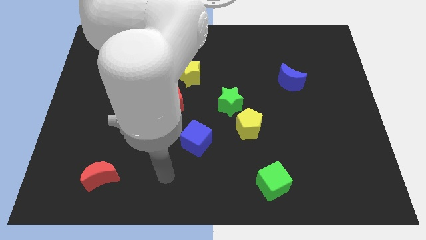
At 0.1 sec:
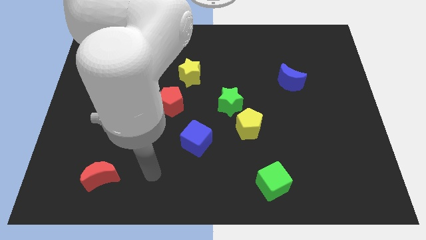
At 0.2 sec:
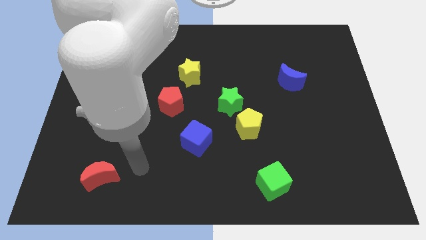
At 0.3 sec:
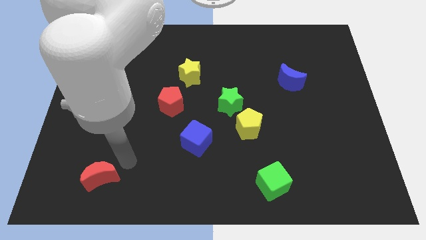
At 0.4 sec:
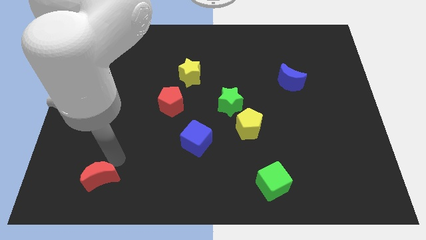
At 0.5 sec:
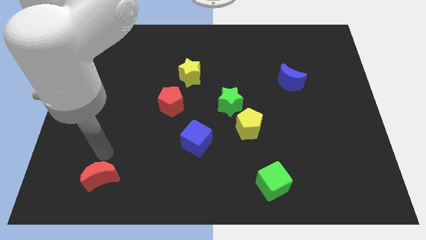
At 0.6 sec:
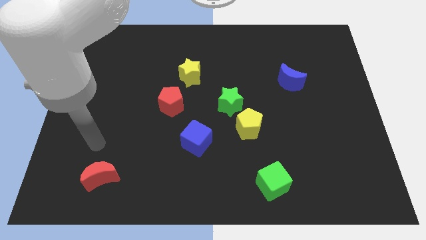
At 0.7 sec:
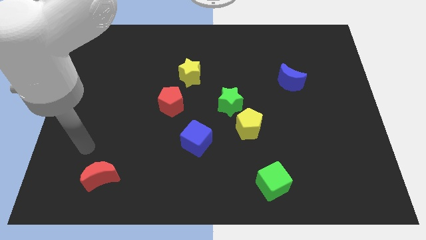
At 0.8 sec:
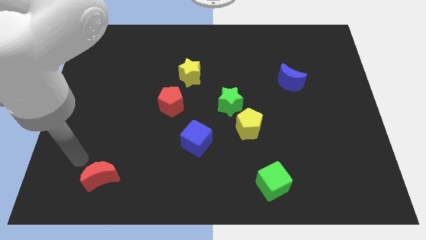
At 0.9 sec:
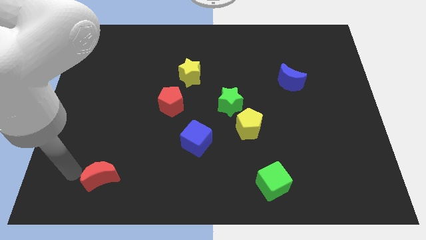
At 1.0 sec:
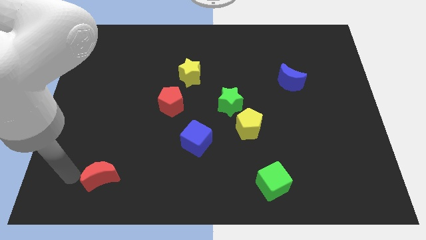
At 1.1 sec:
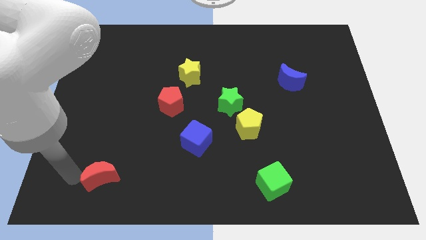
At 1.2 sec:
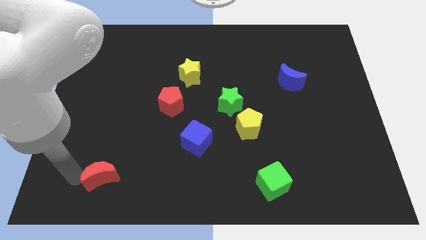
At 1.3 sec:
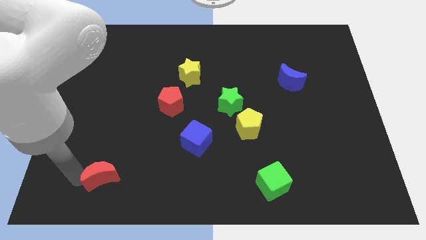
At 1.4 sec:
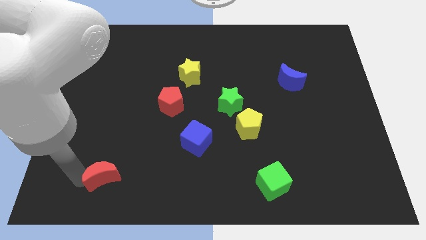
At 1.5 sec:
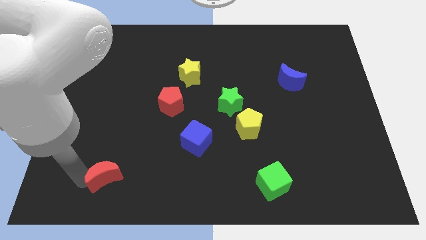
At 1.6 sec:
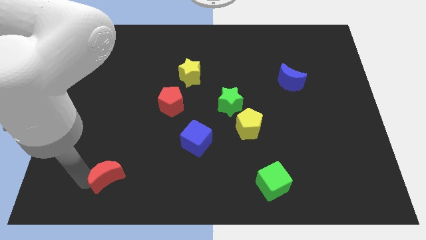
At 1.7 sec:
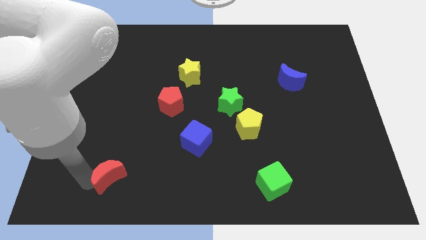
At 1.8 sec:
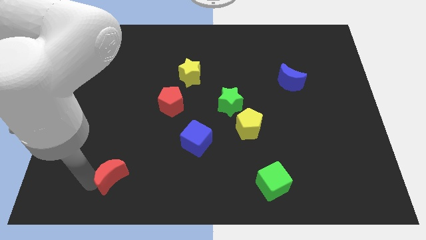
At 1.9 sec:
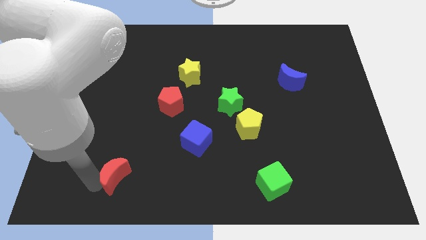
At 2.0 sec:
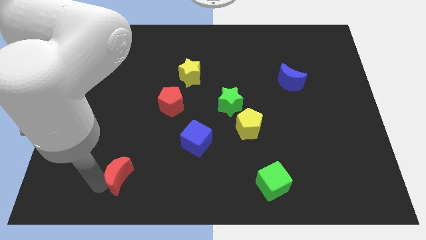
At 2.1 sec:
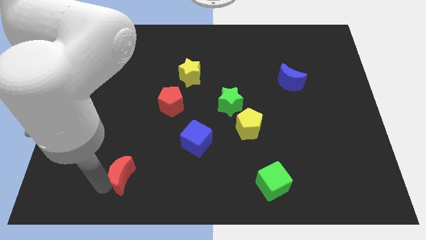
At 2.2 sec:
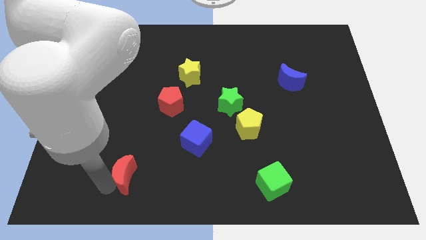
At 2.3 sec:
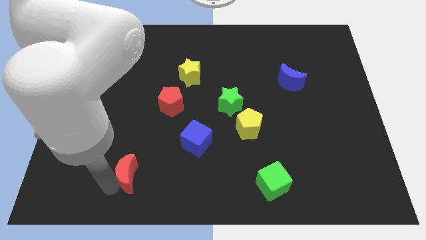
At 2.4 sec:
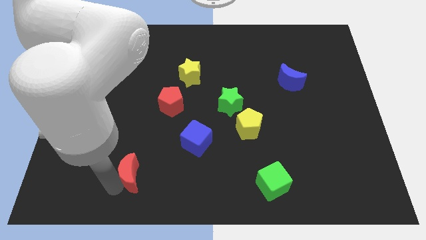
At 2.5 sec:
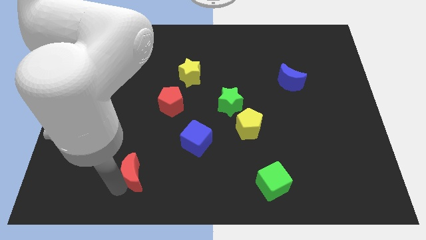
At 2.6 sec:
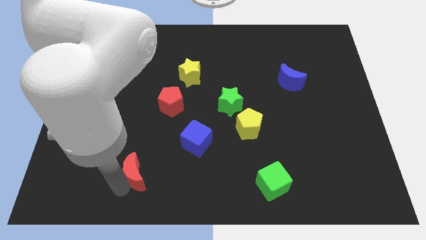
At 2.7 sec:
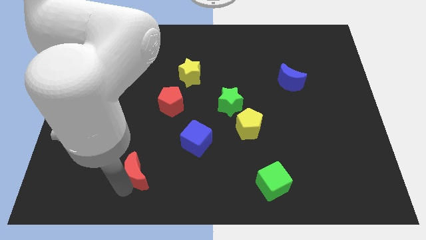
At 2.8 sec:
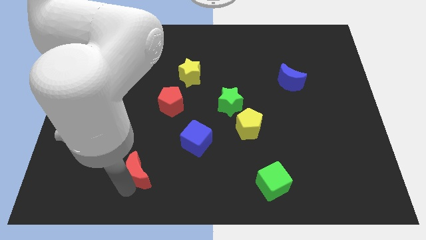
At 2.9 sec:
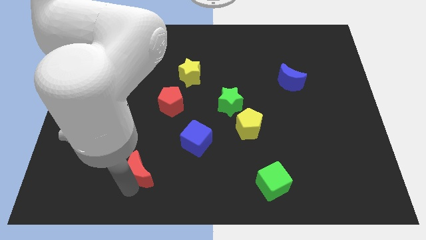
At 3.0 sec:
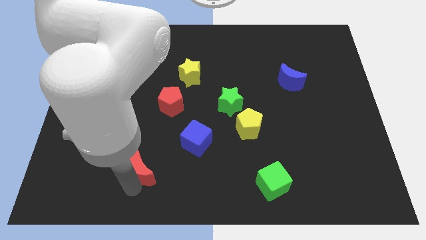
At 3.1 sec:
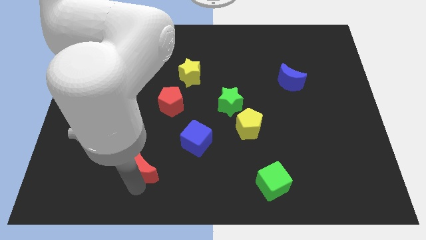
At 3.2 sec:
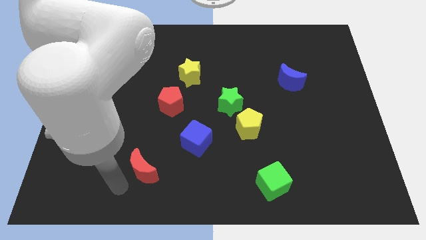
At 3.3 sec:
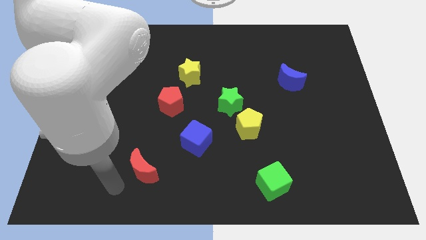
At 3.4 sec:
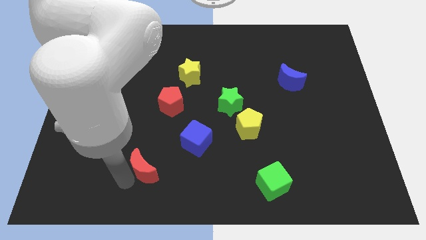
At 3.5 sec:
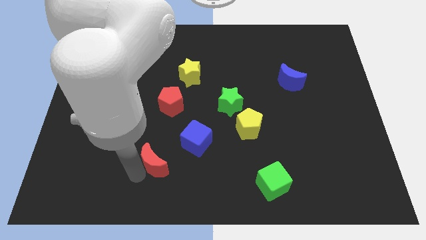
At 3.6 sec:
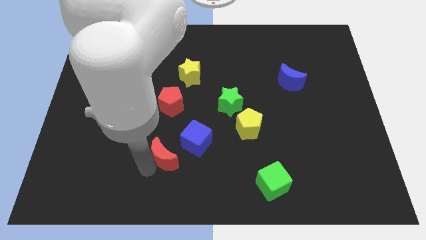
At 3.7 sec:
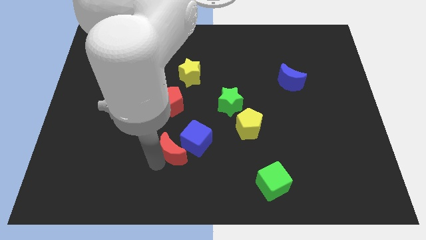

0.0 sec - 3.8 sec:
put the red moon towards the blue cube

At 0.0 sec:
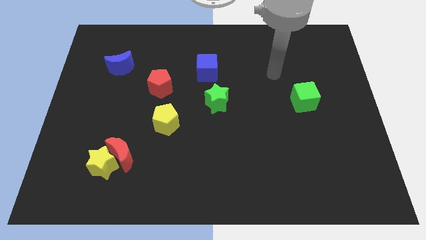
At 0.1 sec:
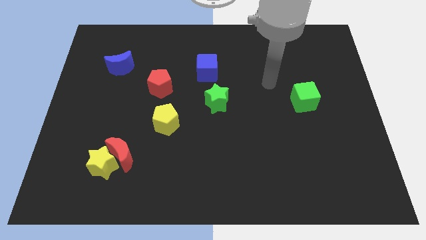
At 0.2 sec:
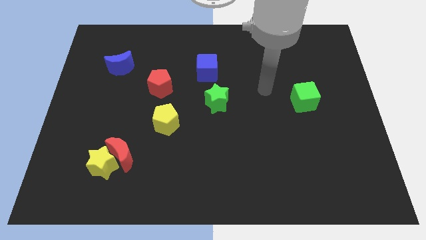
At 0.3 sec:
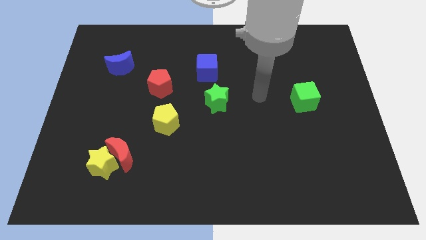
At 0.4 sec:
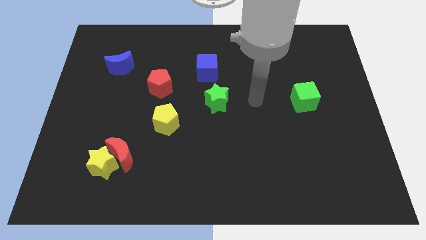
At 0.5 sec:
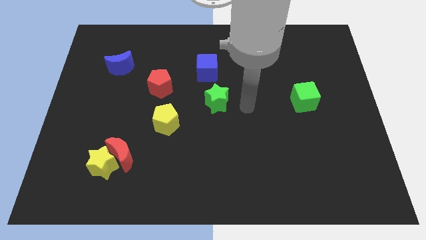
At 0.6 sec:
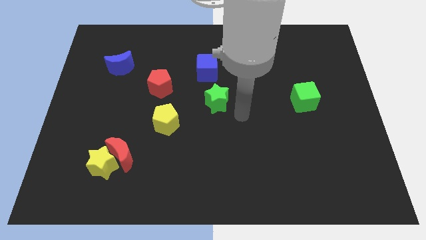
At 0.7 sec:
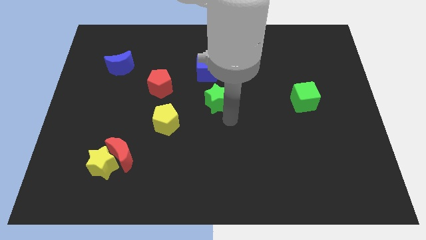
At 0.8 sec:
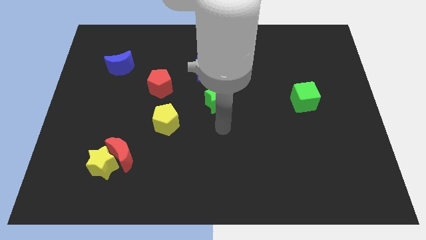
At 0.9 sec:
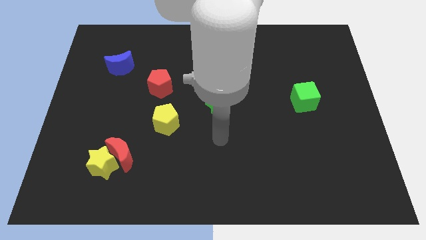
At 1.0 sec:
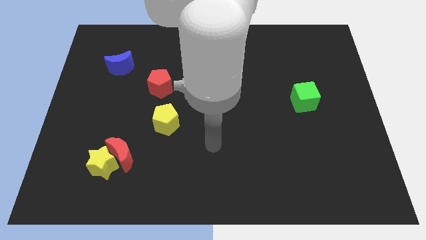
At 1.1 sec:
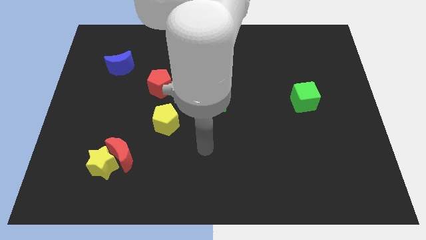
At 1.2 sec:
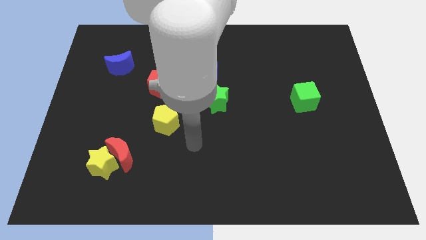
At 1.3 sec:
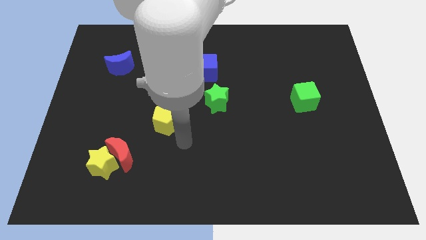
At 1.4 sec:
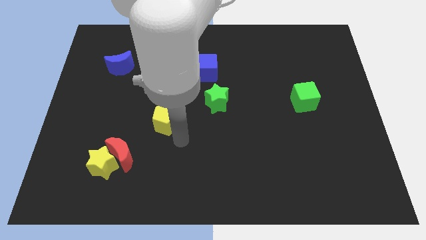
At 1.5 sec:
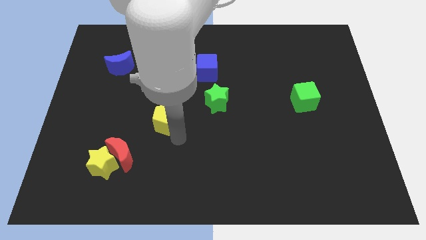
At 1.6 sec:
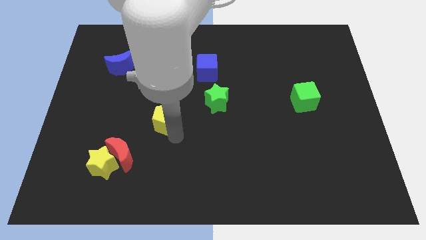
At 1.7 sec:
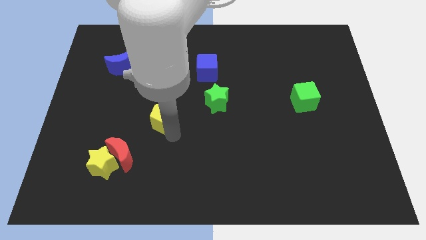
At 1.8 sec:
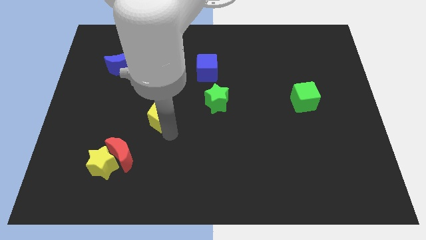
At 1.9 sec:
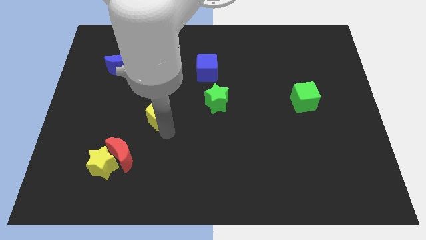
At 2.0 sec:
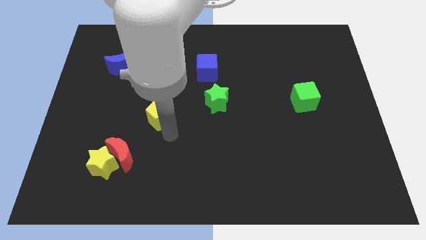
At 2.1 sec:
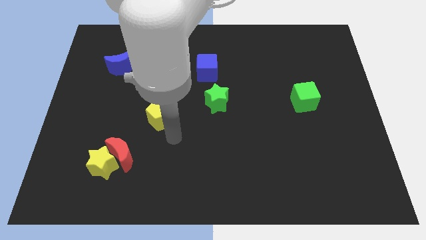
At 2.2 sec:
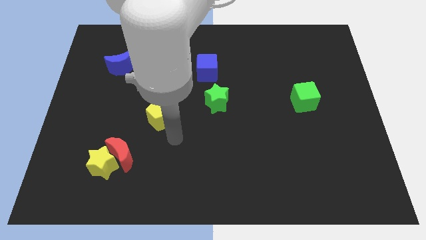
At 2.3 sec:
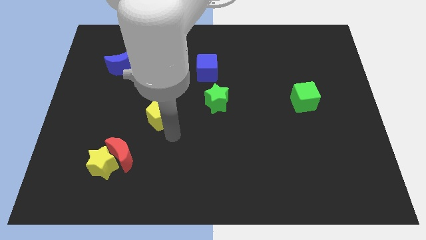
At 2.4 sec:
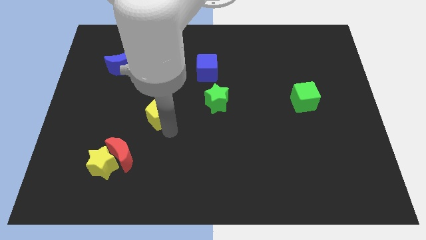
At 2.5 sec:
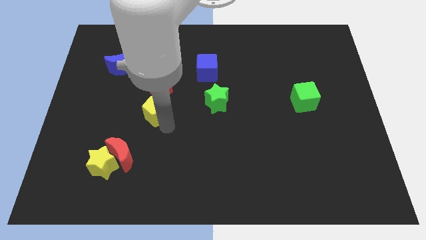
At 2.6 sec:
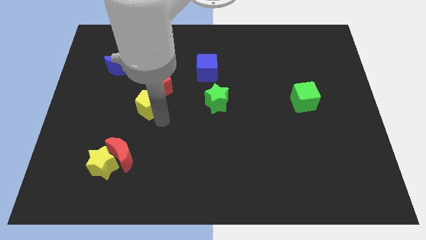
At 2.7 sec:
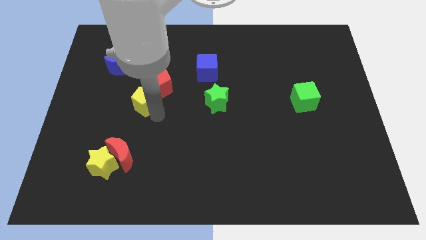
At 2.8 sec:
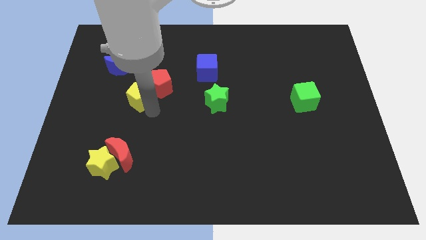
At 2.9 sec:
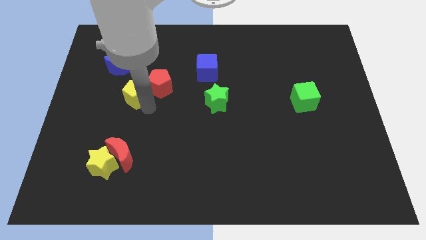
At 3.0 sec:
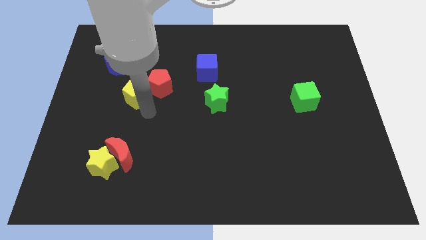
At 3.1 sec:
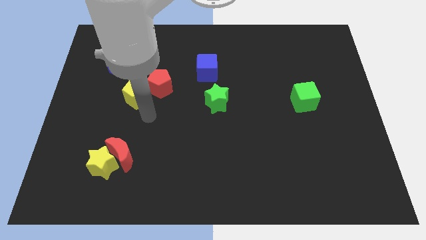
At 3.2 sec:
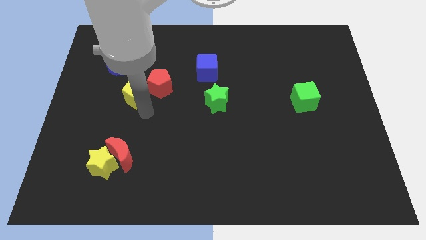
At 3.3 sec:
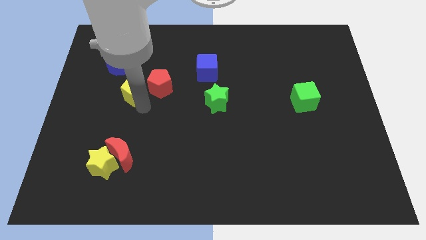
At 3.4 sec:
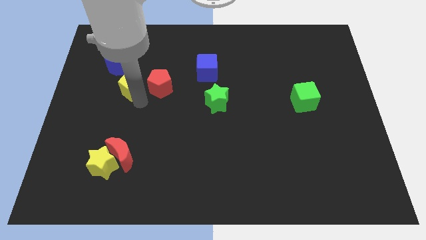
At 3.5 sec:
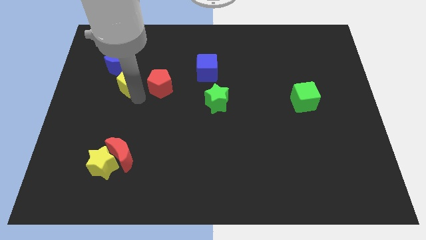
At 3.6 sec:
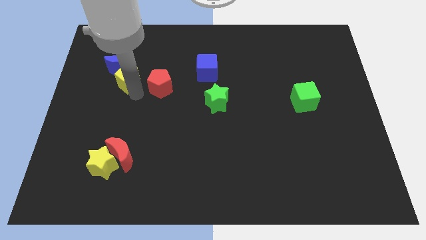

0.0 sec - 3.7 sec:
slide the yellow pentagon next to the blue moon
